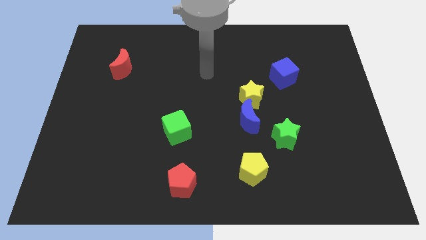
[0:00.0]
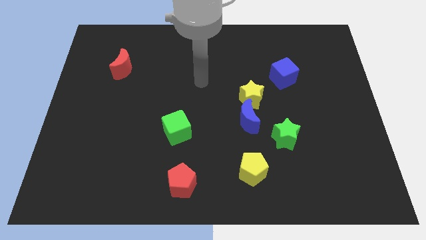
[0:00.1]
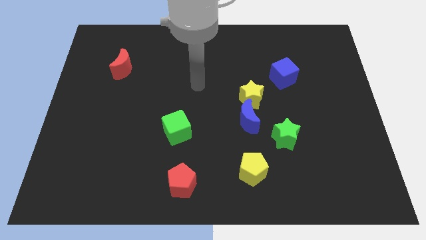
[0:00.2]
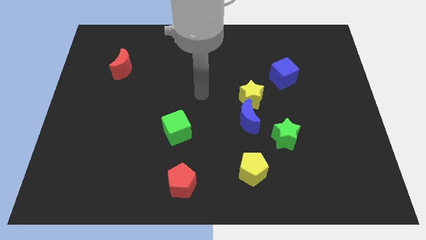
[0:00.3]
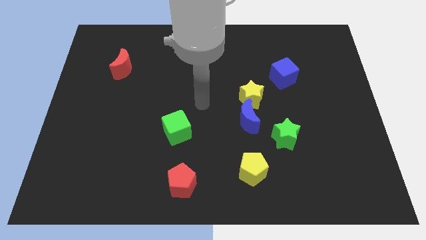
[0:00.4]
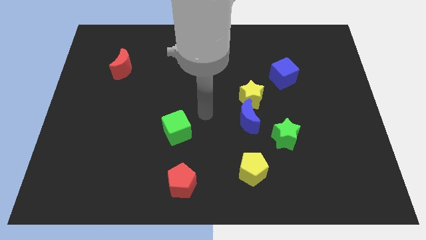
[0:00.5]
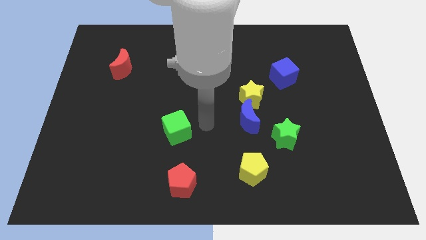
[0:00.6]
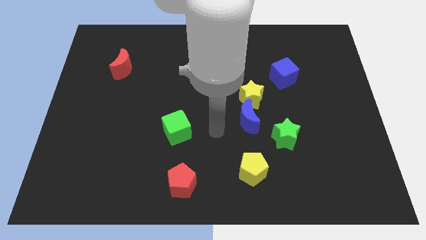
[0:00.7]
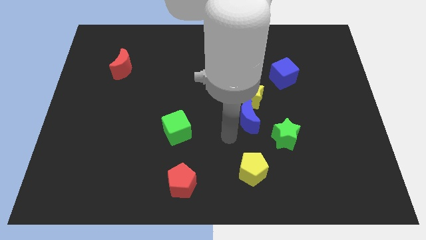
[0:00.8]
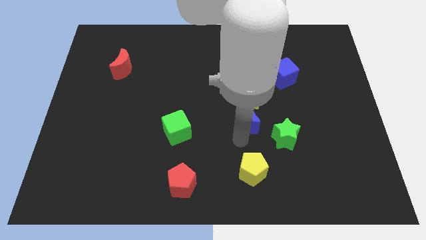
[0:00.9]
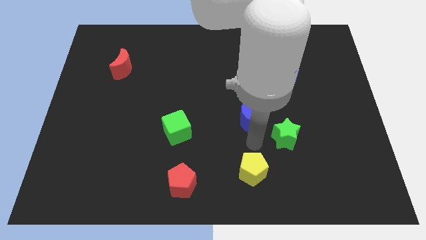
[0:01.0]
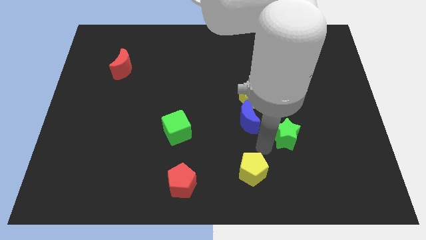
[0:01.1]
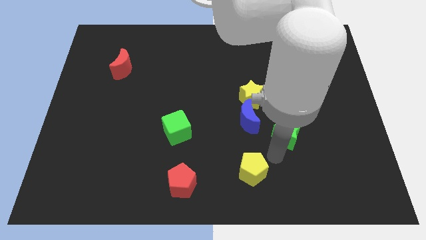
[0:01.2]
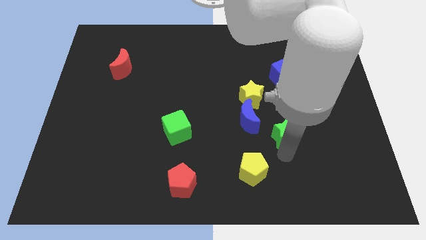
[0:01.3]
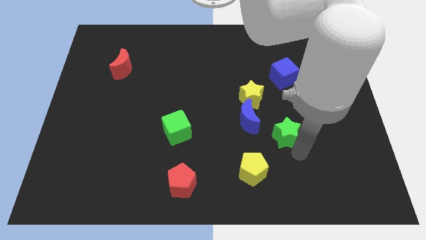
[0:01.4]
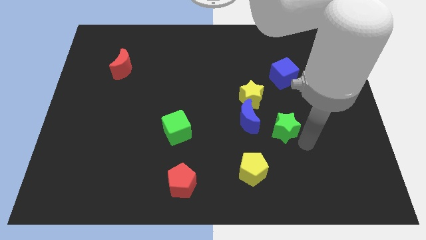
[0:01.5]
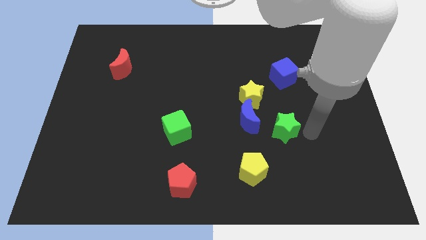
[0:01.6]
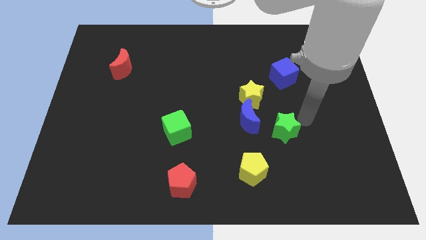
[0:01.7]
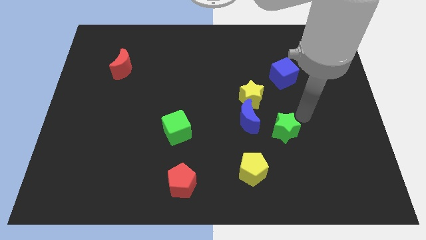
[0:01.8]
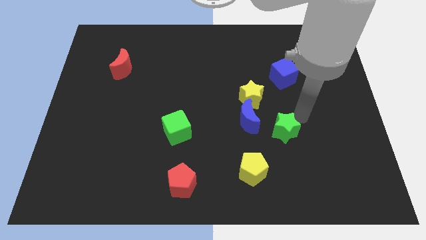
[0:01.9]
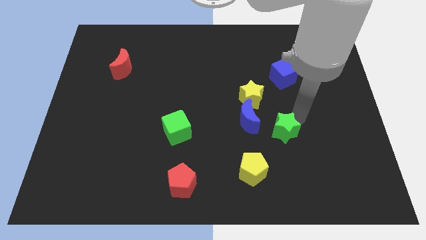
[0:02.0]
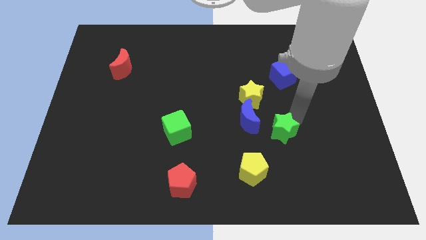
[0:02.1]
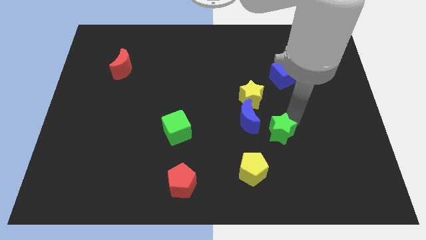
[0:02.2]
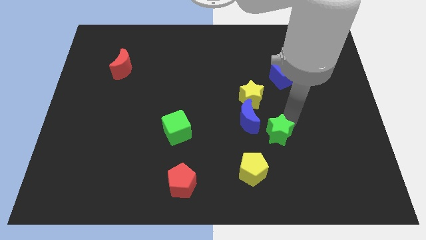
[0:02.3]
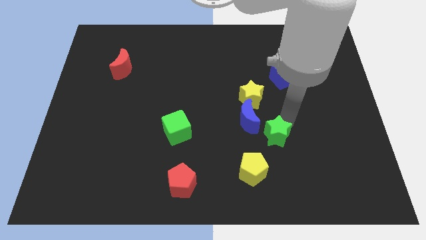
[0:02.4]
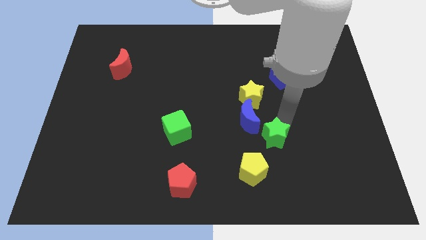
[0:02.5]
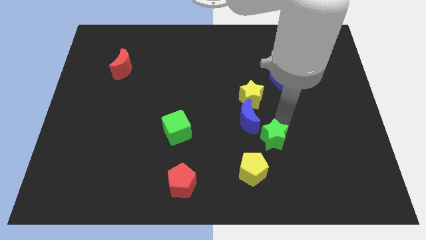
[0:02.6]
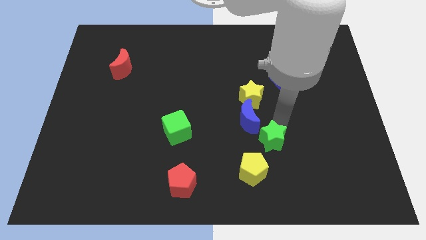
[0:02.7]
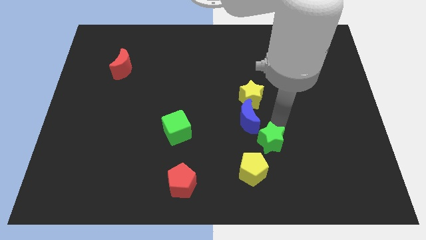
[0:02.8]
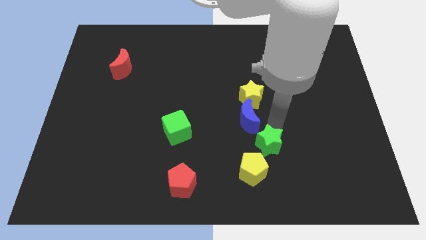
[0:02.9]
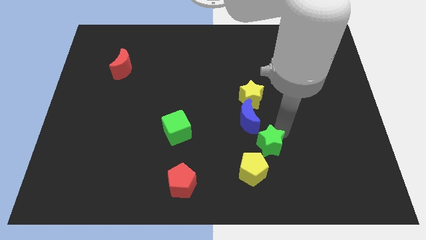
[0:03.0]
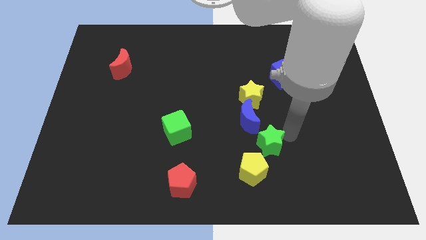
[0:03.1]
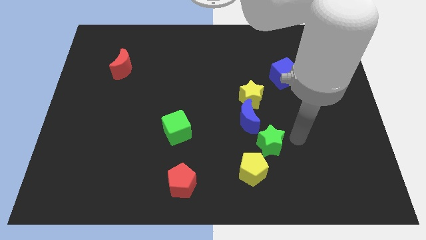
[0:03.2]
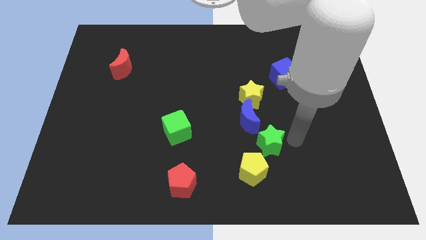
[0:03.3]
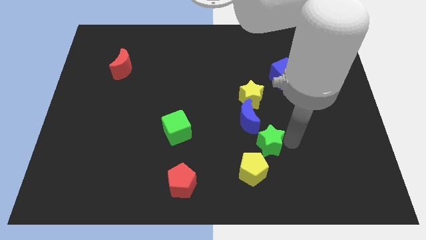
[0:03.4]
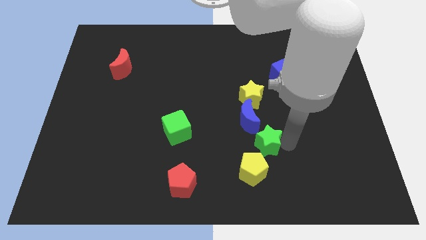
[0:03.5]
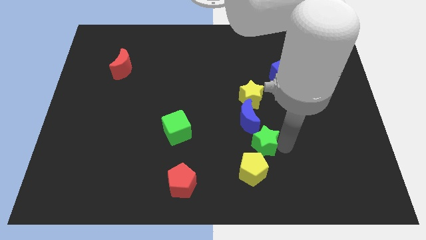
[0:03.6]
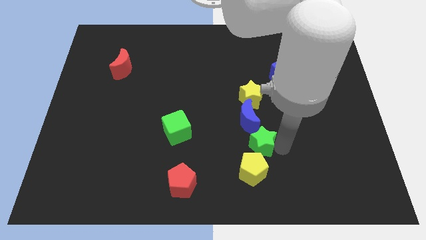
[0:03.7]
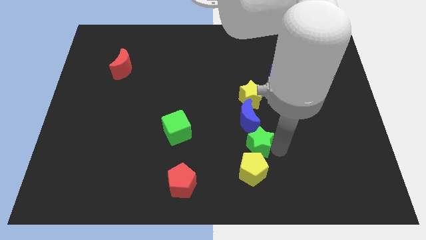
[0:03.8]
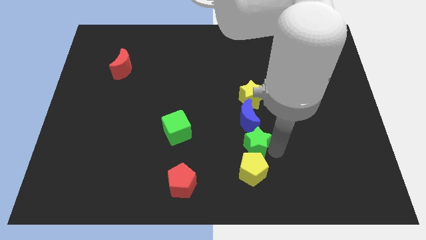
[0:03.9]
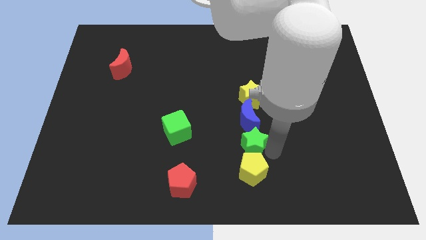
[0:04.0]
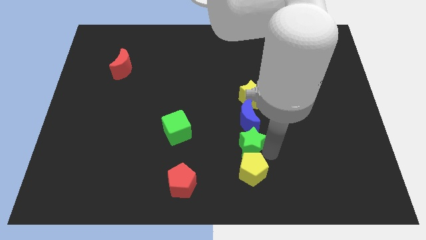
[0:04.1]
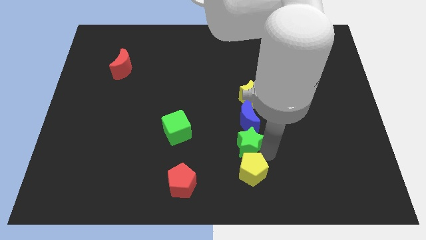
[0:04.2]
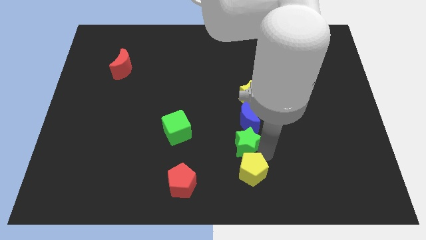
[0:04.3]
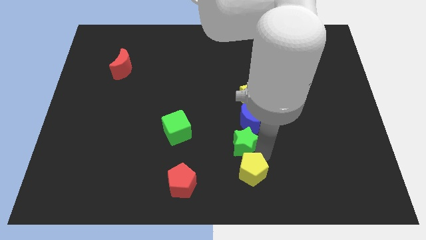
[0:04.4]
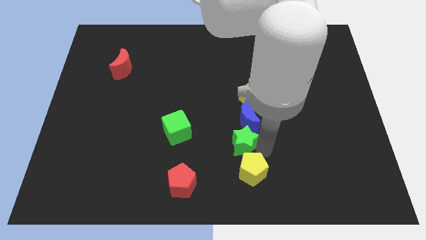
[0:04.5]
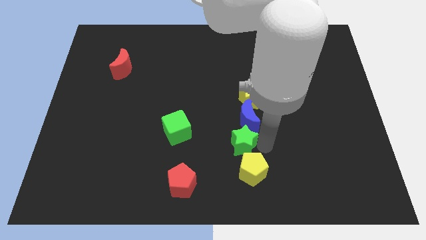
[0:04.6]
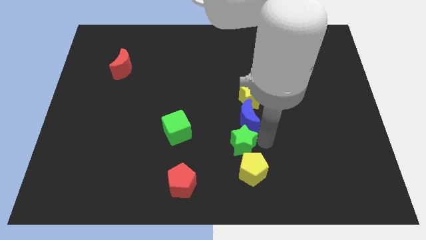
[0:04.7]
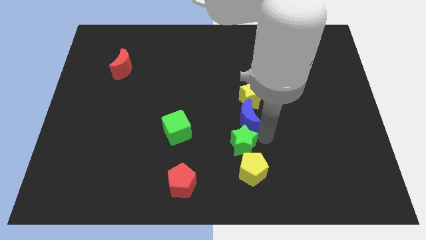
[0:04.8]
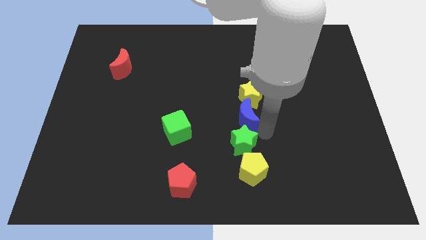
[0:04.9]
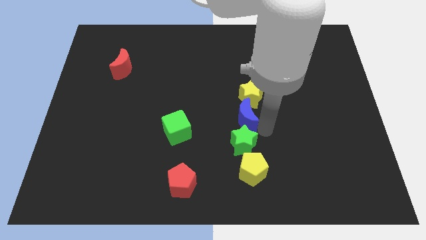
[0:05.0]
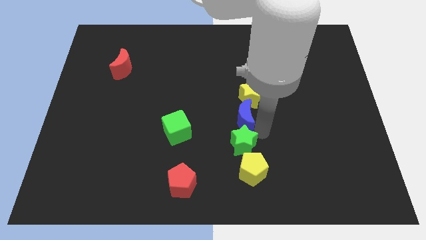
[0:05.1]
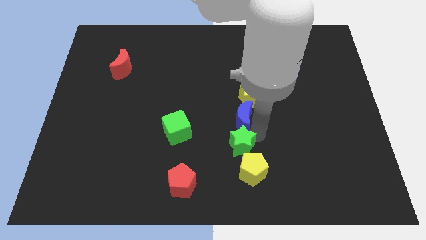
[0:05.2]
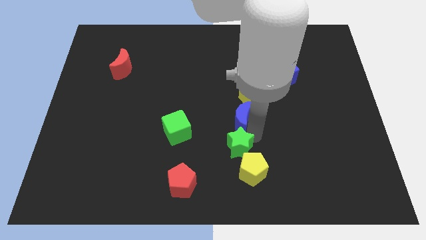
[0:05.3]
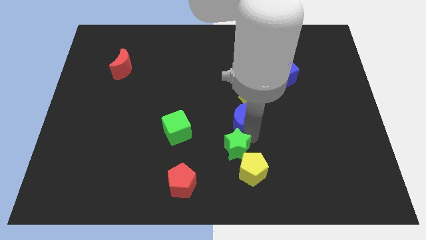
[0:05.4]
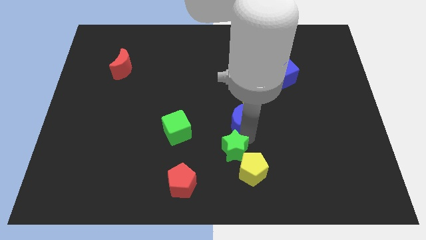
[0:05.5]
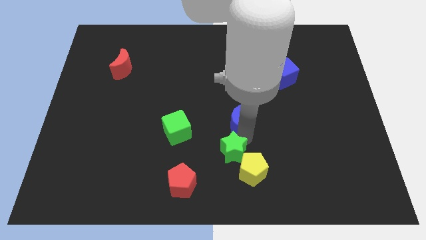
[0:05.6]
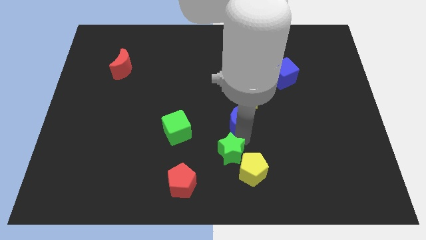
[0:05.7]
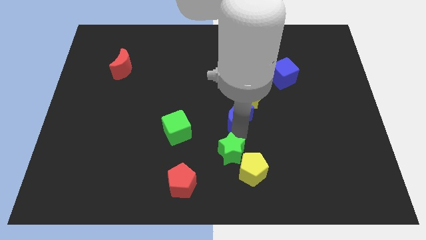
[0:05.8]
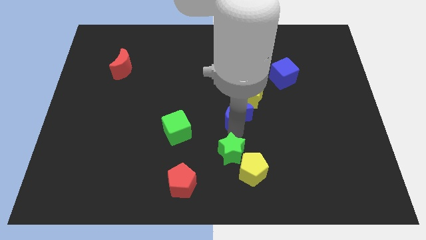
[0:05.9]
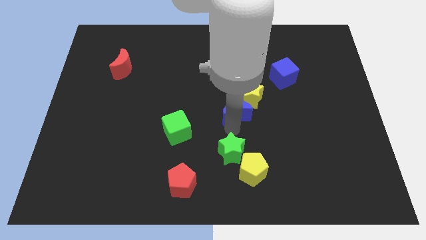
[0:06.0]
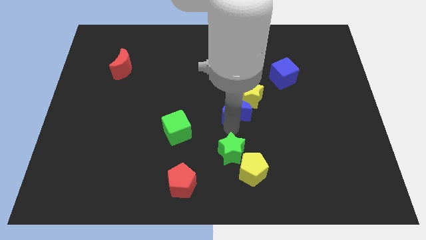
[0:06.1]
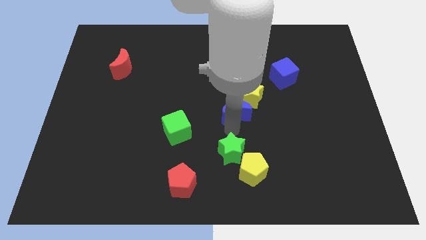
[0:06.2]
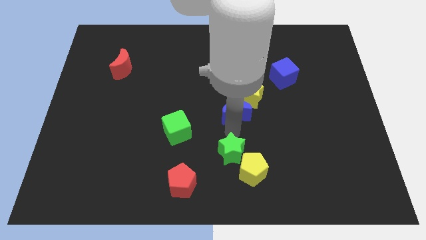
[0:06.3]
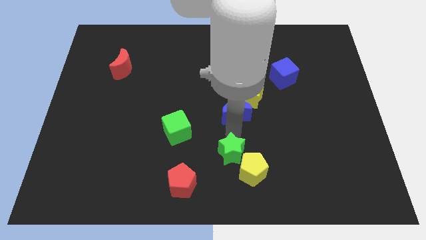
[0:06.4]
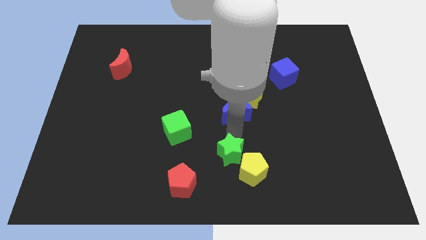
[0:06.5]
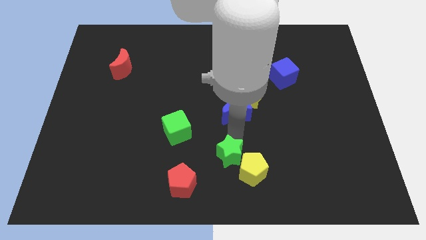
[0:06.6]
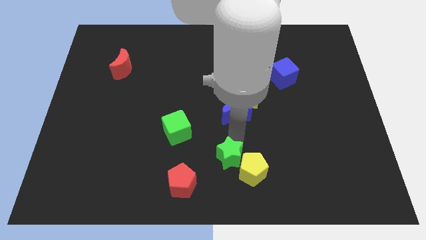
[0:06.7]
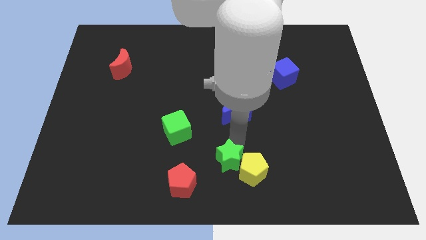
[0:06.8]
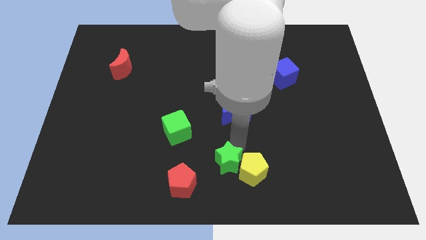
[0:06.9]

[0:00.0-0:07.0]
put the green star right of the red pentagon
